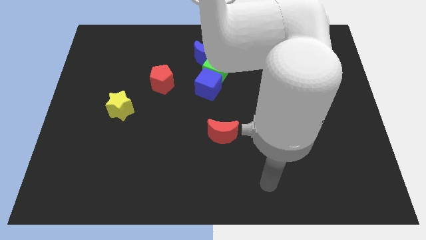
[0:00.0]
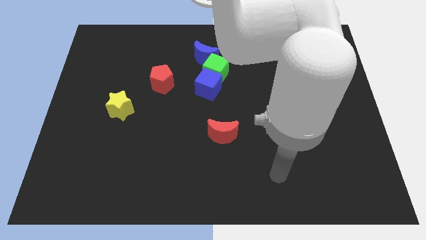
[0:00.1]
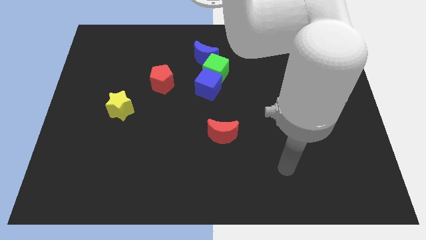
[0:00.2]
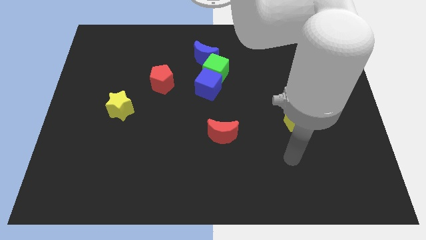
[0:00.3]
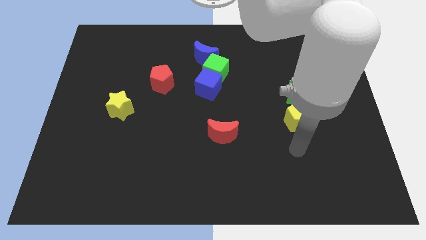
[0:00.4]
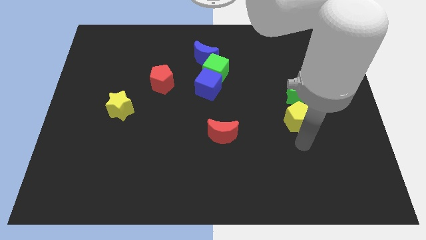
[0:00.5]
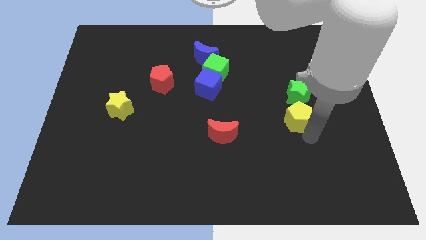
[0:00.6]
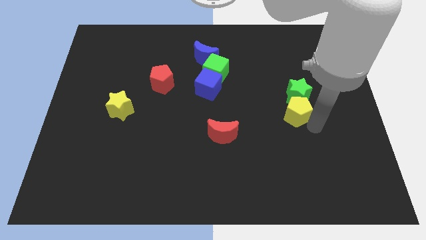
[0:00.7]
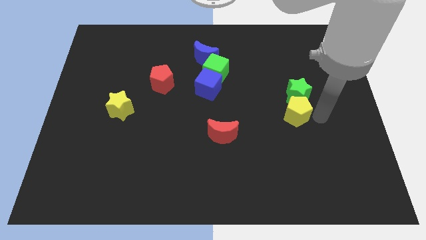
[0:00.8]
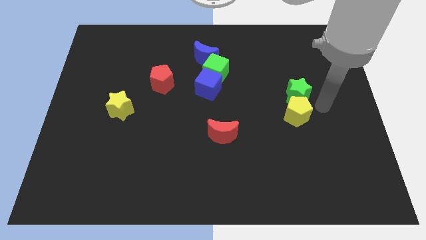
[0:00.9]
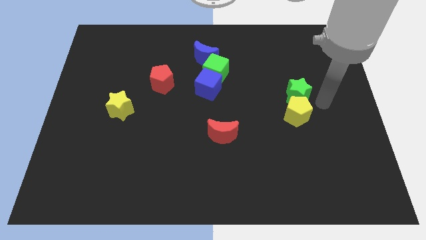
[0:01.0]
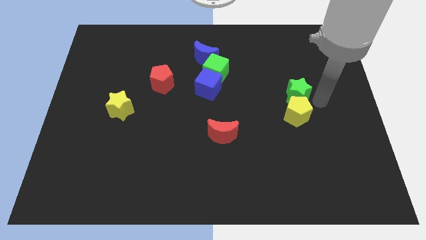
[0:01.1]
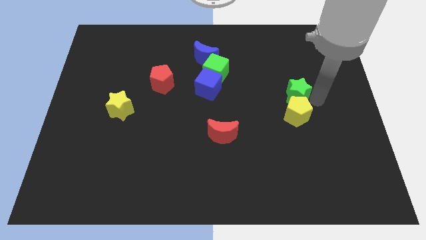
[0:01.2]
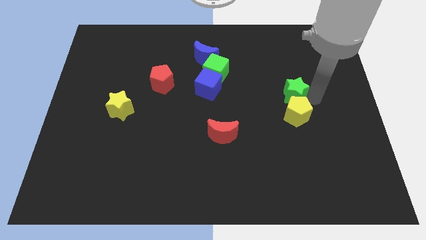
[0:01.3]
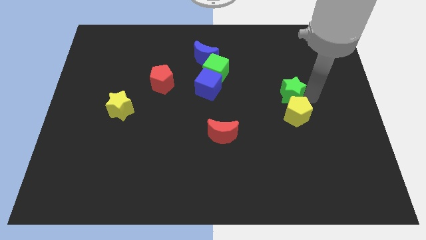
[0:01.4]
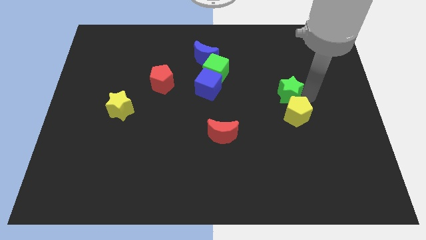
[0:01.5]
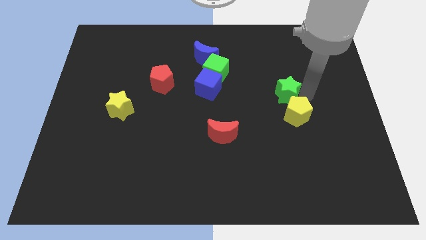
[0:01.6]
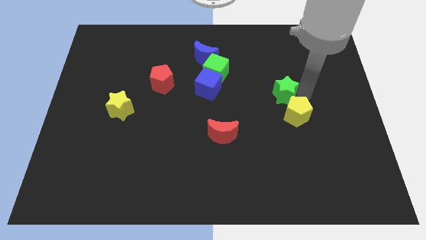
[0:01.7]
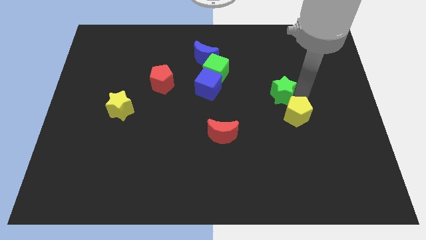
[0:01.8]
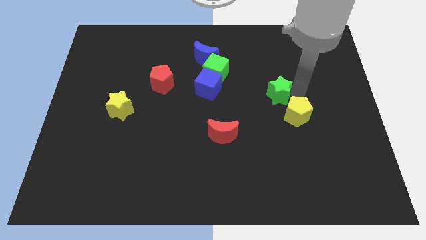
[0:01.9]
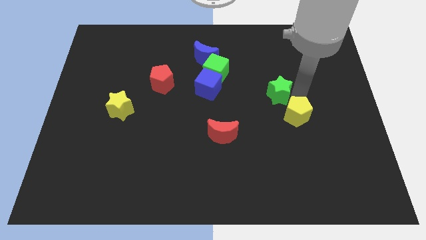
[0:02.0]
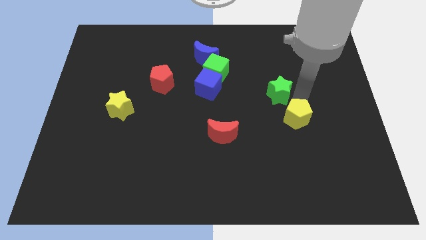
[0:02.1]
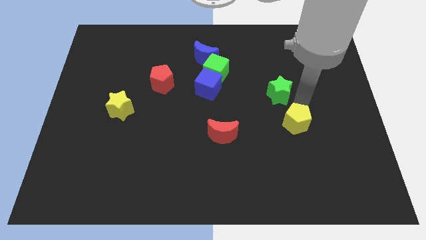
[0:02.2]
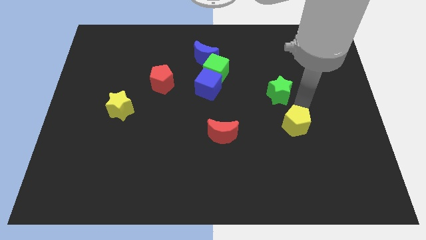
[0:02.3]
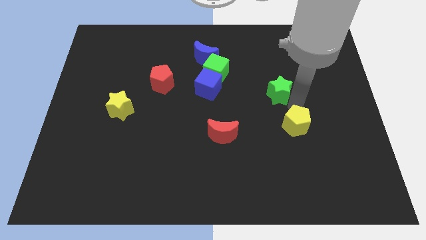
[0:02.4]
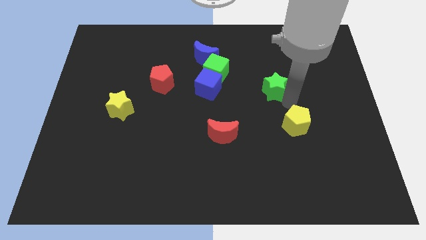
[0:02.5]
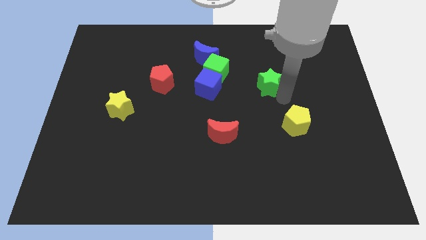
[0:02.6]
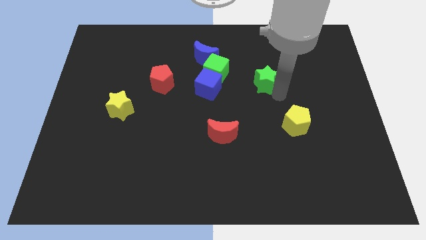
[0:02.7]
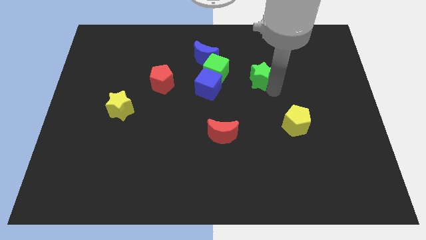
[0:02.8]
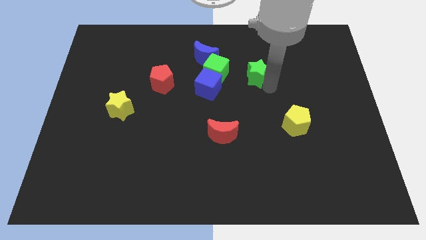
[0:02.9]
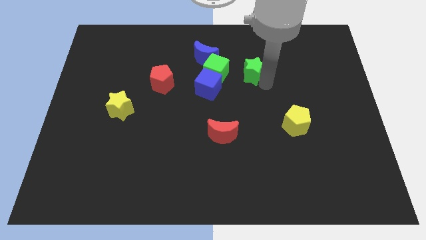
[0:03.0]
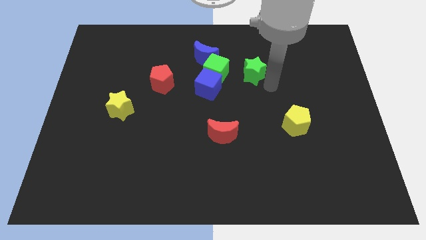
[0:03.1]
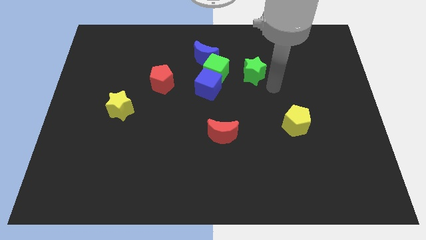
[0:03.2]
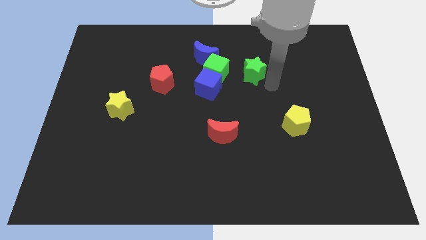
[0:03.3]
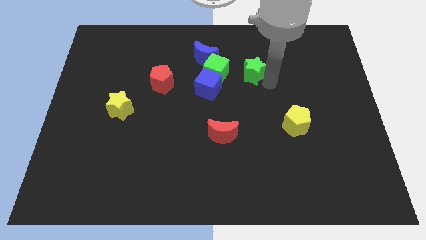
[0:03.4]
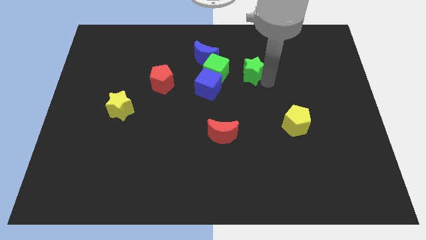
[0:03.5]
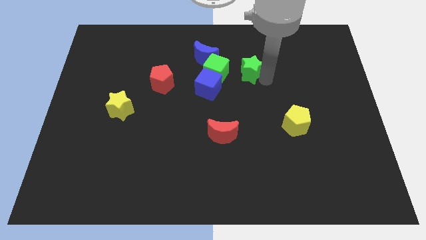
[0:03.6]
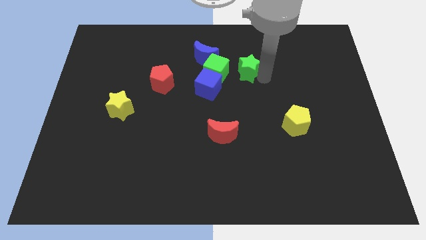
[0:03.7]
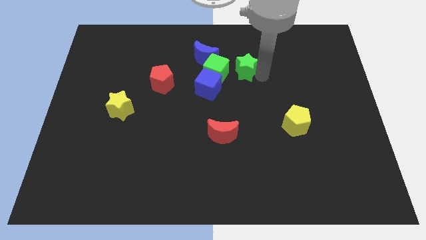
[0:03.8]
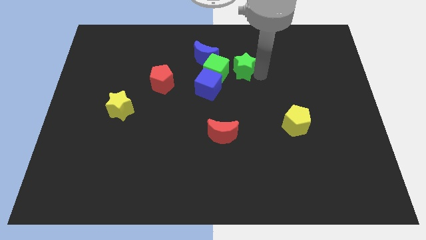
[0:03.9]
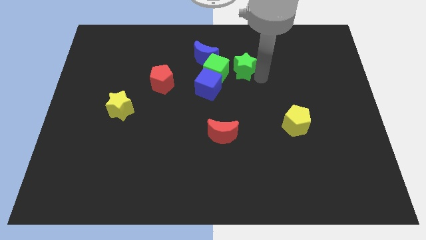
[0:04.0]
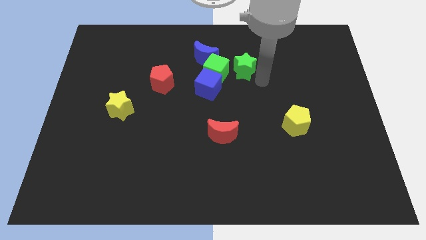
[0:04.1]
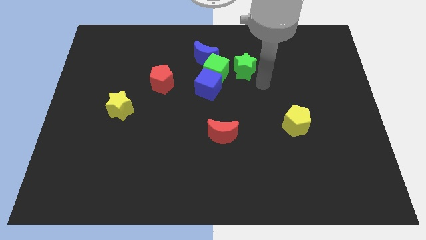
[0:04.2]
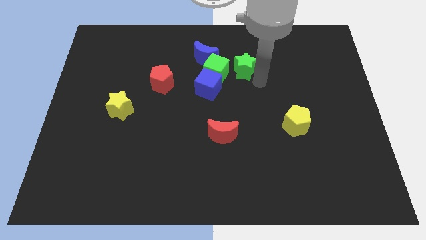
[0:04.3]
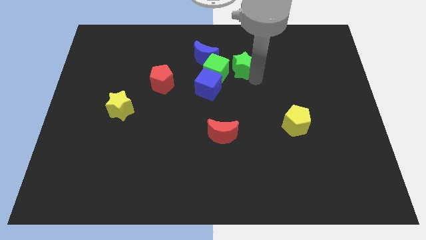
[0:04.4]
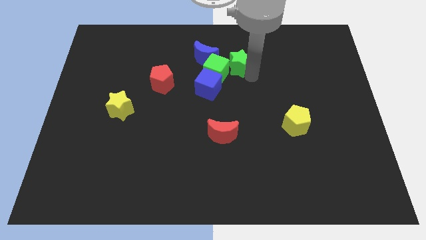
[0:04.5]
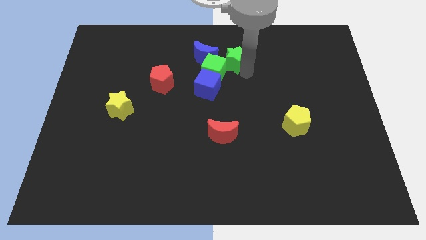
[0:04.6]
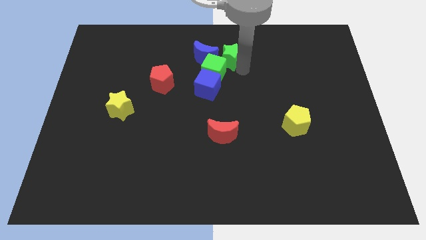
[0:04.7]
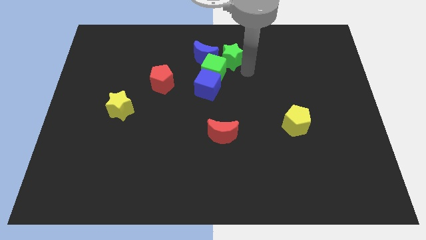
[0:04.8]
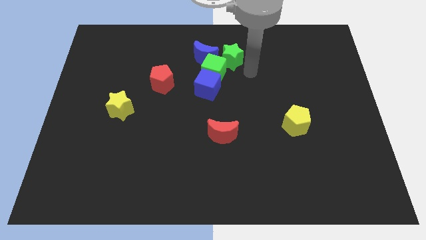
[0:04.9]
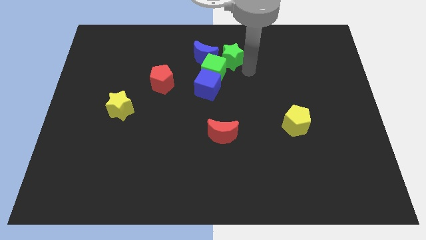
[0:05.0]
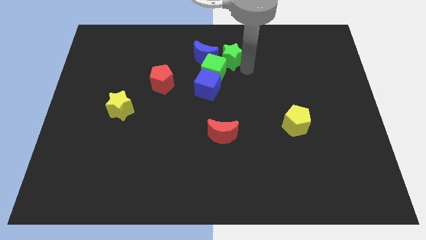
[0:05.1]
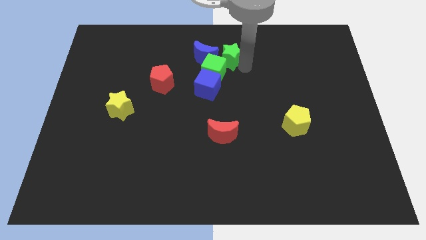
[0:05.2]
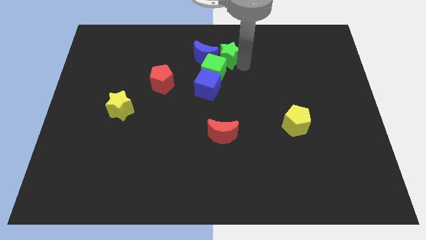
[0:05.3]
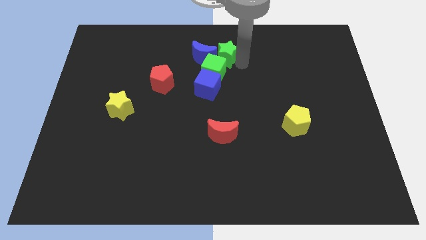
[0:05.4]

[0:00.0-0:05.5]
slide the green star above the blue cube

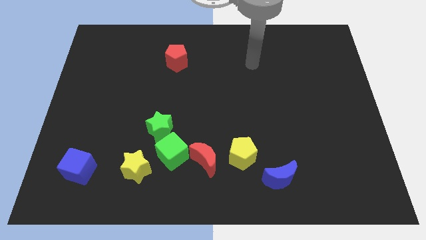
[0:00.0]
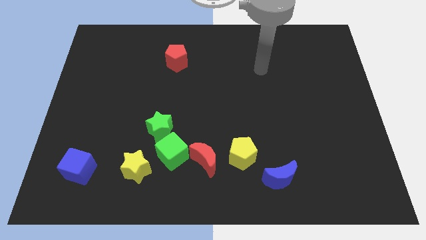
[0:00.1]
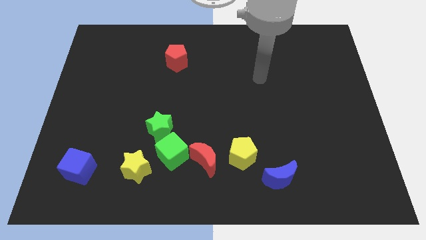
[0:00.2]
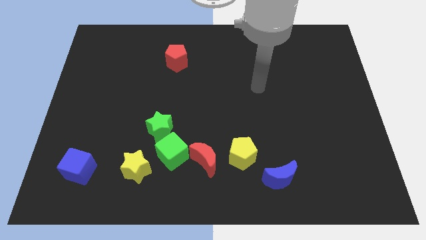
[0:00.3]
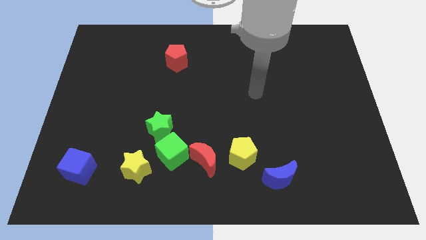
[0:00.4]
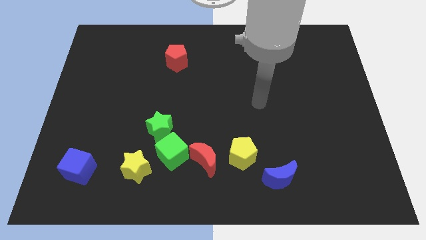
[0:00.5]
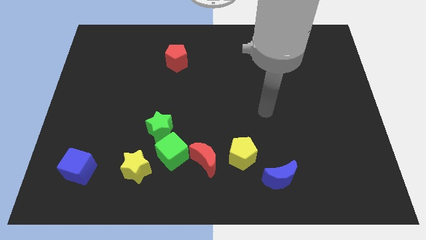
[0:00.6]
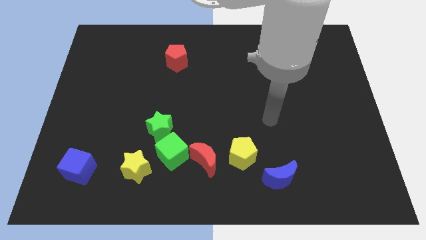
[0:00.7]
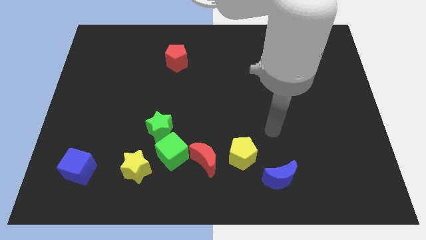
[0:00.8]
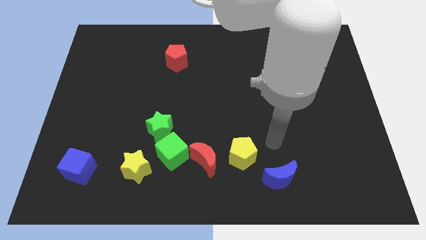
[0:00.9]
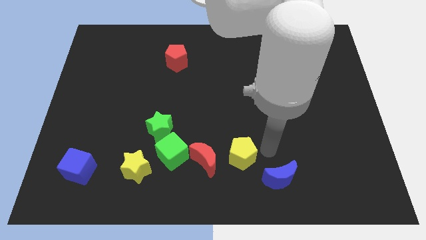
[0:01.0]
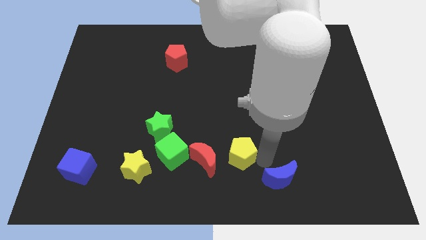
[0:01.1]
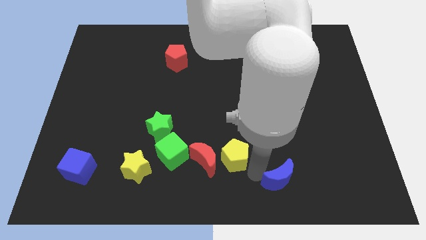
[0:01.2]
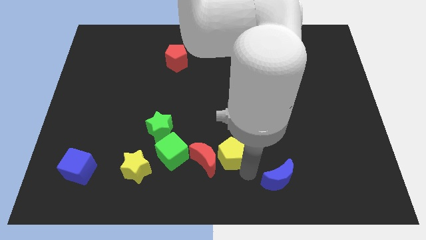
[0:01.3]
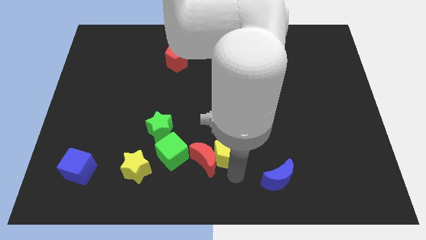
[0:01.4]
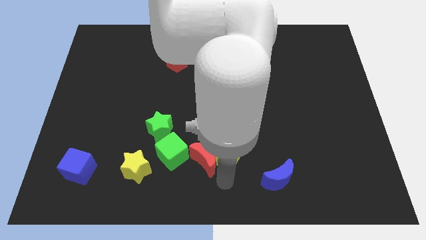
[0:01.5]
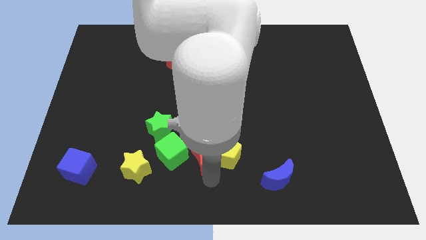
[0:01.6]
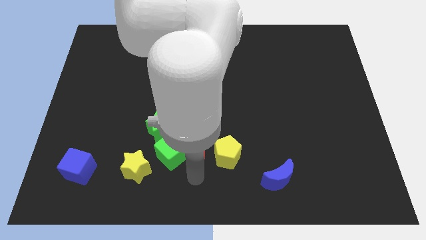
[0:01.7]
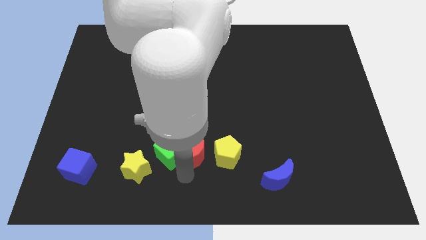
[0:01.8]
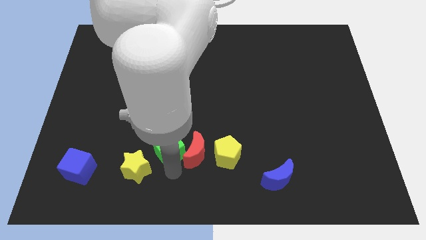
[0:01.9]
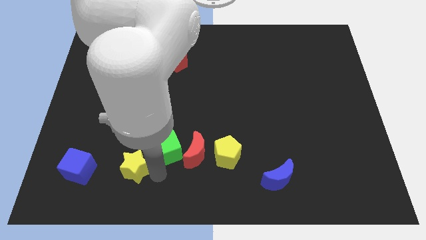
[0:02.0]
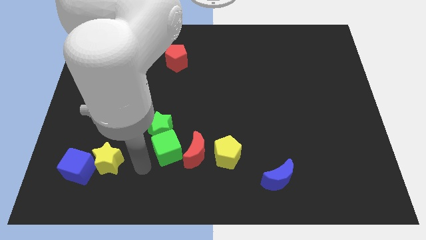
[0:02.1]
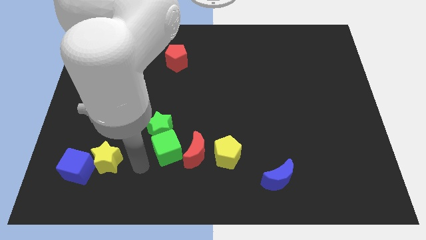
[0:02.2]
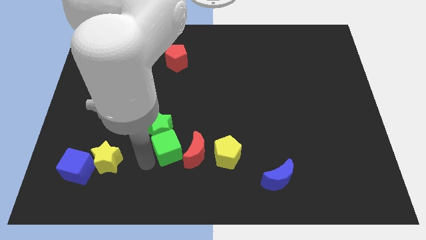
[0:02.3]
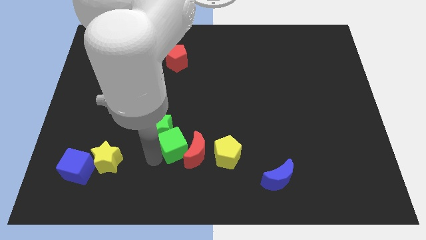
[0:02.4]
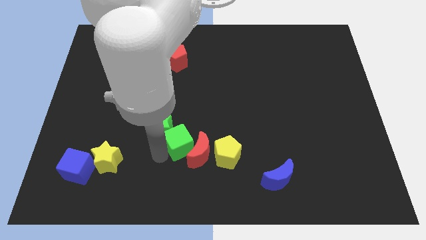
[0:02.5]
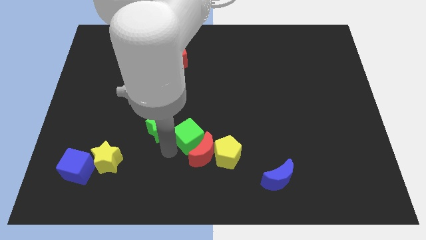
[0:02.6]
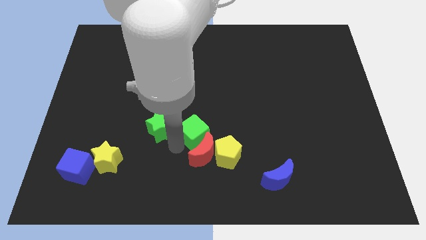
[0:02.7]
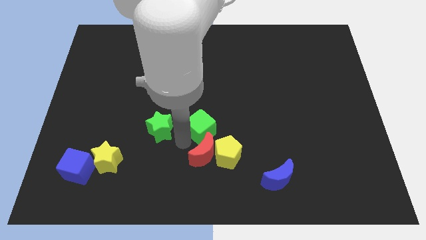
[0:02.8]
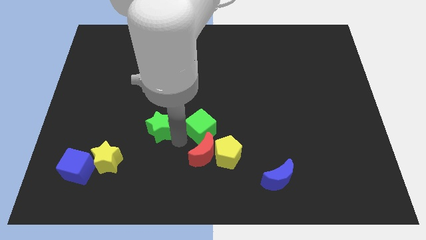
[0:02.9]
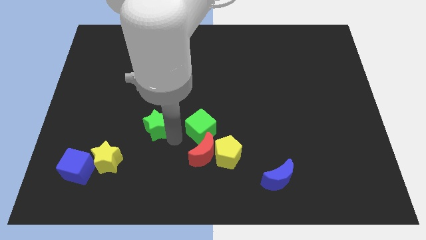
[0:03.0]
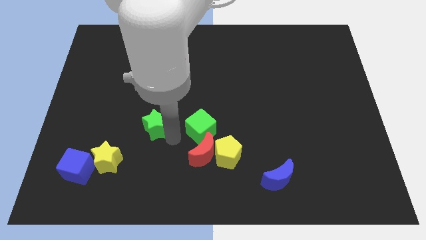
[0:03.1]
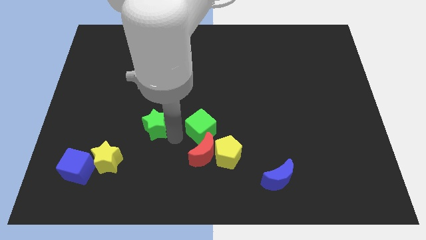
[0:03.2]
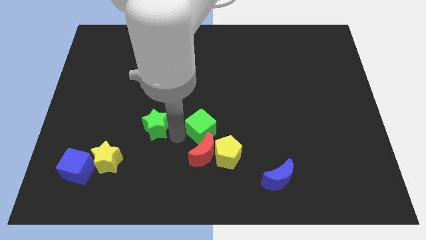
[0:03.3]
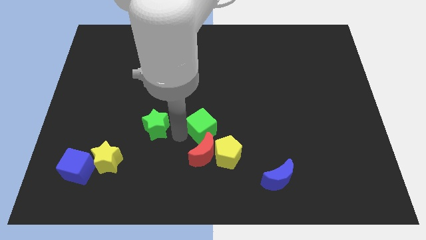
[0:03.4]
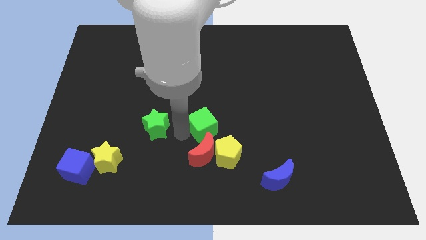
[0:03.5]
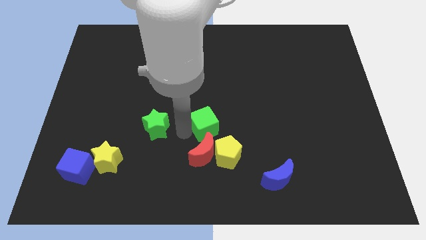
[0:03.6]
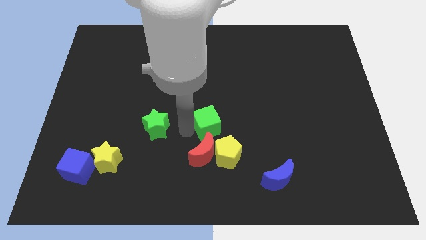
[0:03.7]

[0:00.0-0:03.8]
move the green cube to the top of the yellow pentagon
